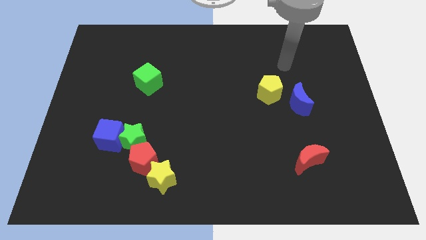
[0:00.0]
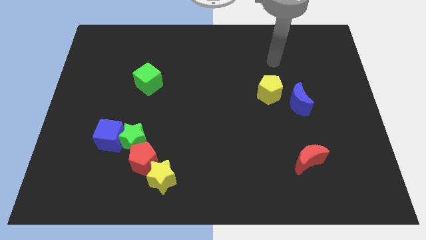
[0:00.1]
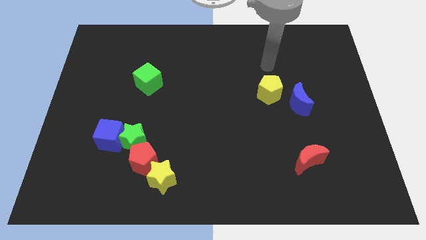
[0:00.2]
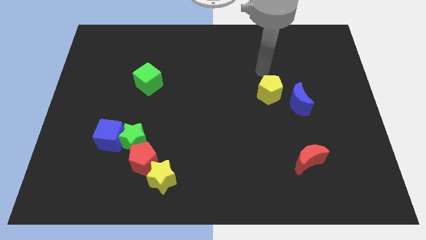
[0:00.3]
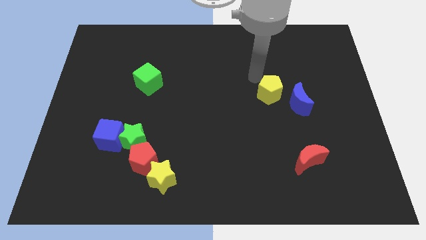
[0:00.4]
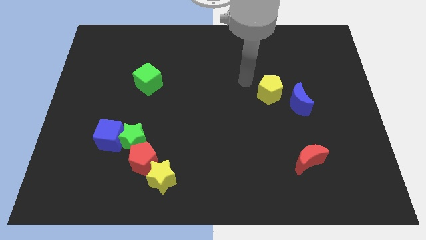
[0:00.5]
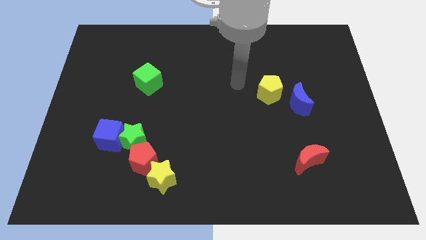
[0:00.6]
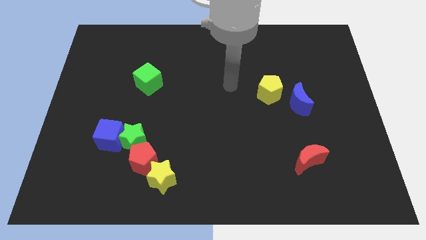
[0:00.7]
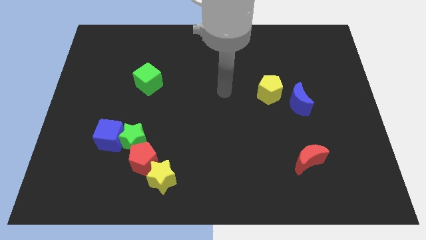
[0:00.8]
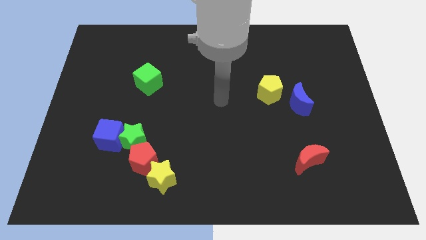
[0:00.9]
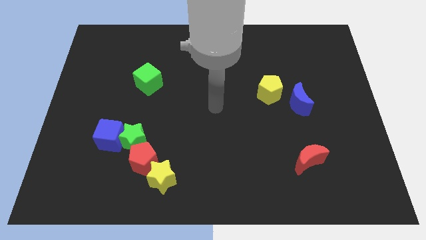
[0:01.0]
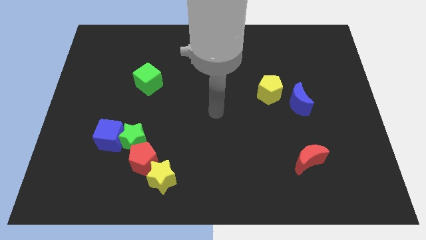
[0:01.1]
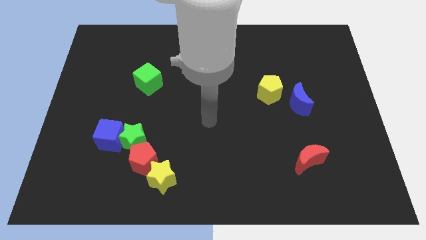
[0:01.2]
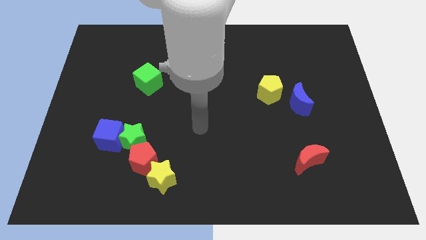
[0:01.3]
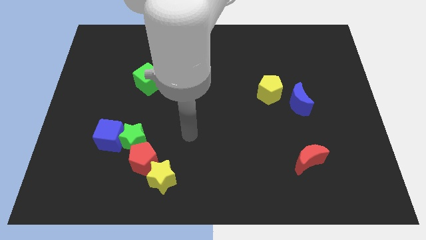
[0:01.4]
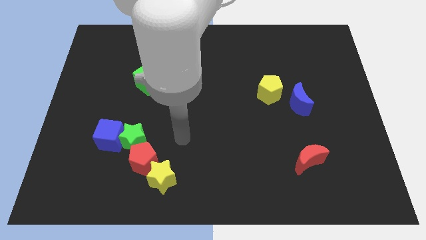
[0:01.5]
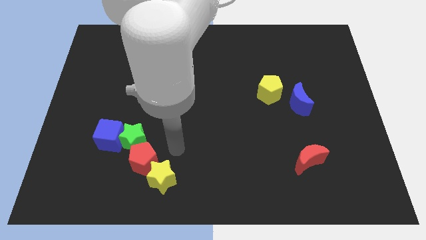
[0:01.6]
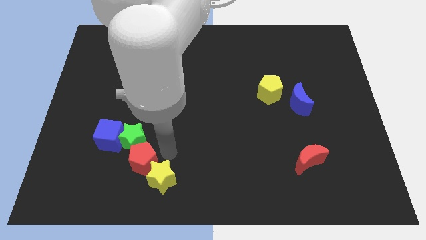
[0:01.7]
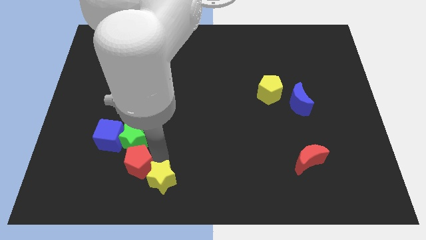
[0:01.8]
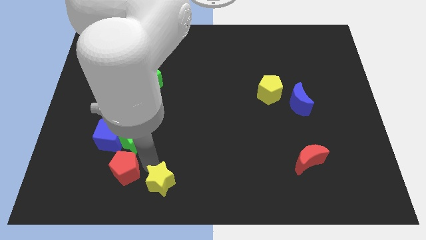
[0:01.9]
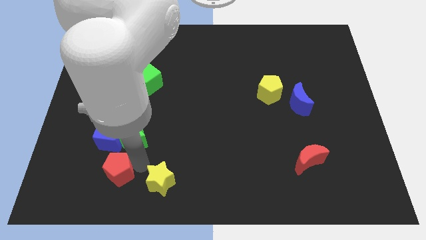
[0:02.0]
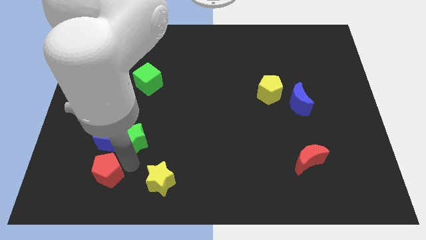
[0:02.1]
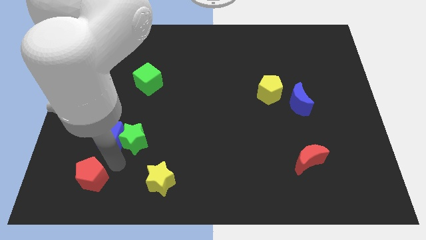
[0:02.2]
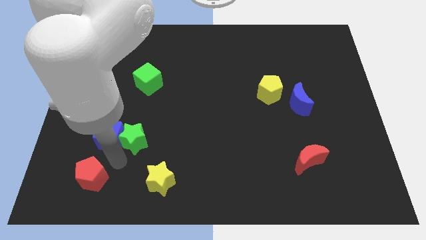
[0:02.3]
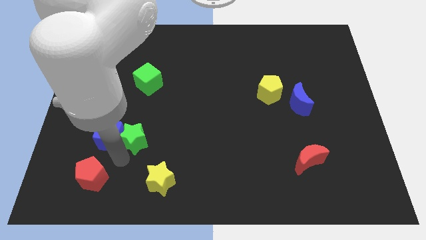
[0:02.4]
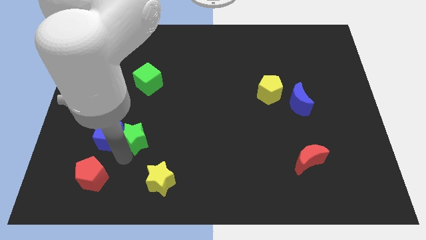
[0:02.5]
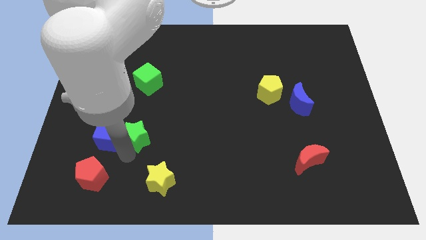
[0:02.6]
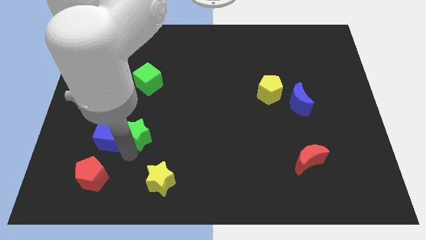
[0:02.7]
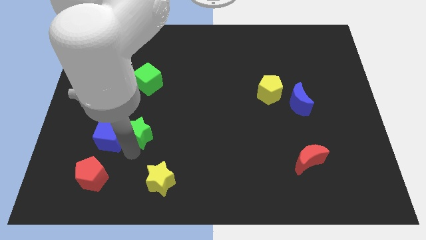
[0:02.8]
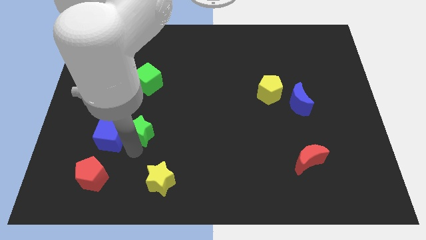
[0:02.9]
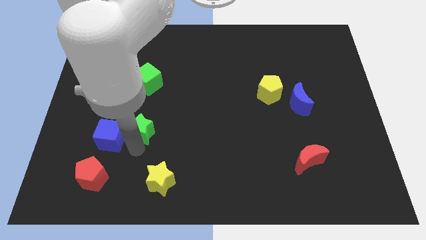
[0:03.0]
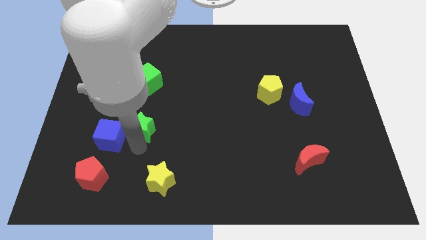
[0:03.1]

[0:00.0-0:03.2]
separate the green star from the blue cube and red pentagon

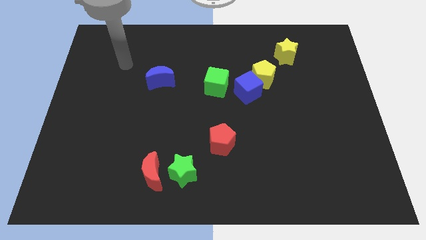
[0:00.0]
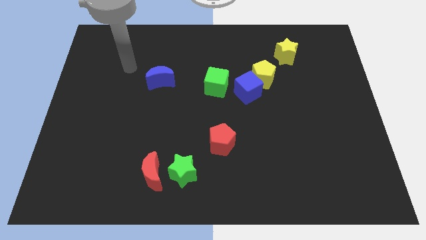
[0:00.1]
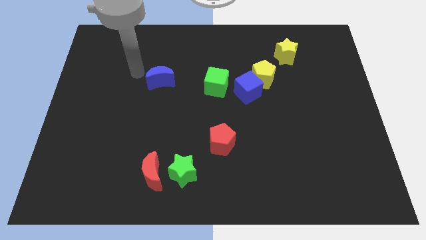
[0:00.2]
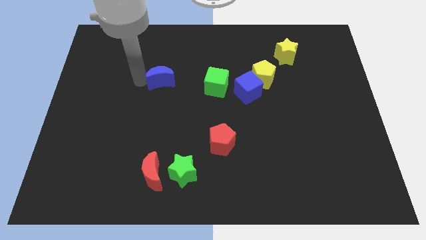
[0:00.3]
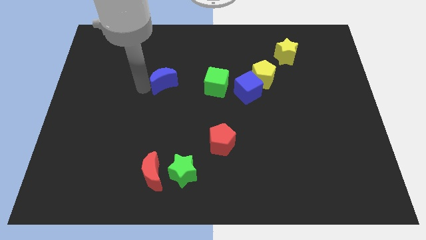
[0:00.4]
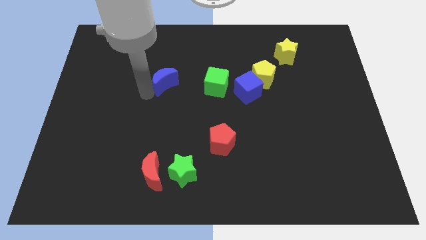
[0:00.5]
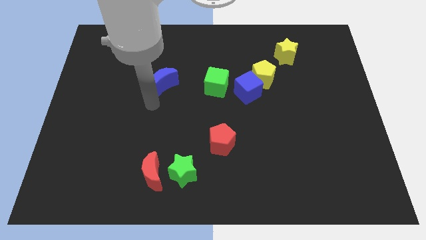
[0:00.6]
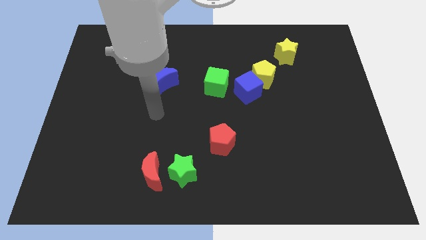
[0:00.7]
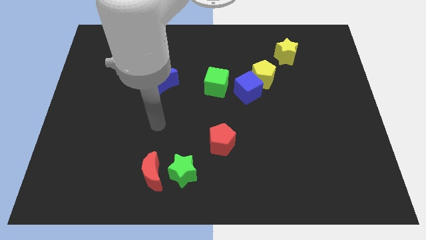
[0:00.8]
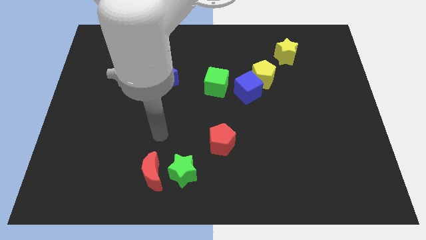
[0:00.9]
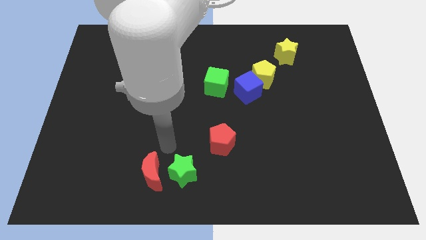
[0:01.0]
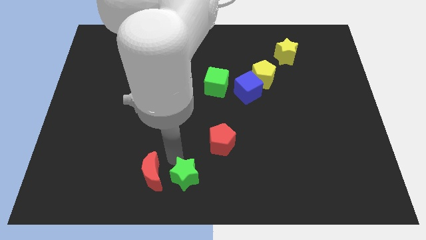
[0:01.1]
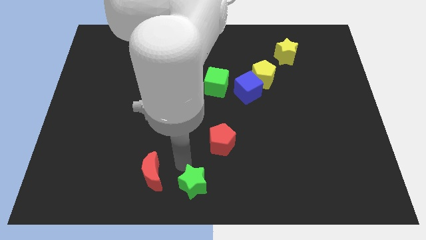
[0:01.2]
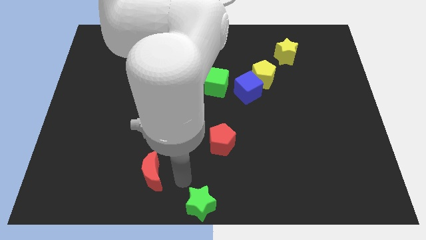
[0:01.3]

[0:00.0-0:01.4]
pull the red moon apart from the green star

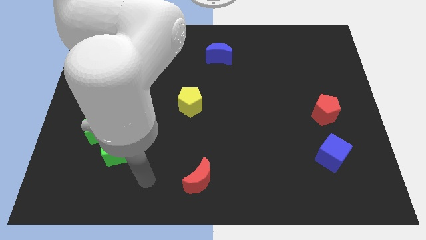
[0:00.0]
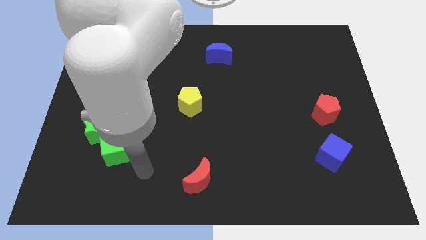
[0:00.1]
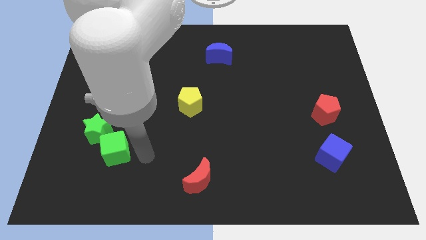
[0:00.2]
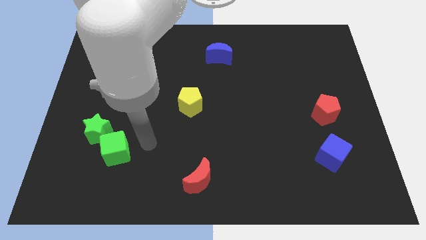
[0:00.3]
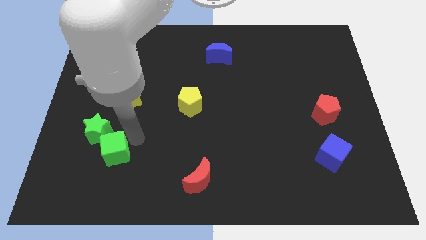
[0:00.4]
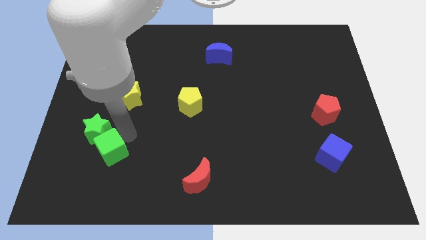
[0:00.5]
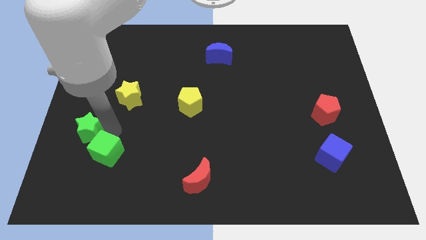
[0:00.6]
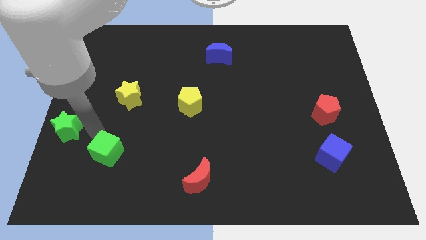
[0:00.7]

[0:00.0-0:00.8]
separate the green cube from the green star

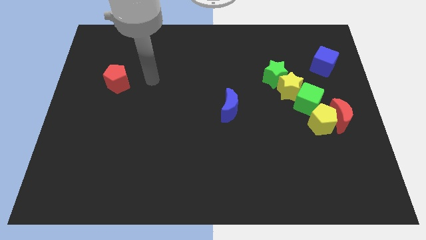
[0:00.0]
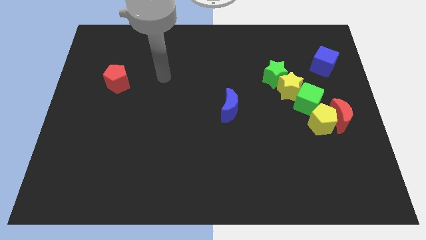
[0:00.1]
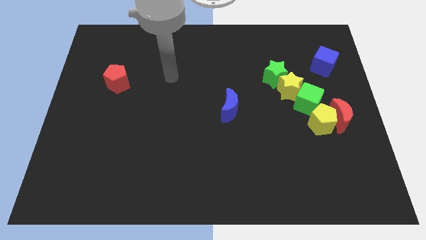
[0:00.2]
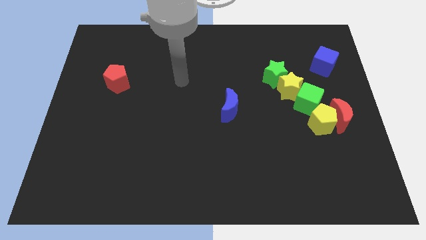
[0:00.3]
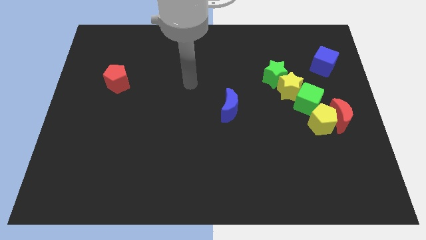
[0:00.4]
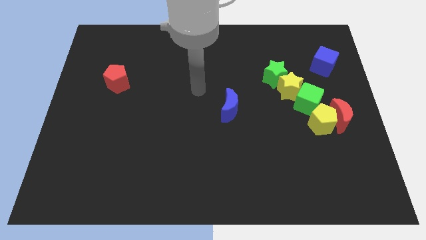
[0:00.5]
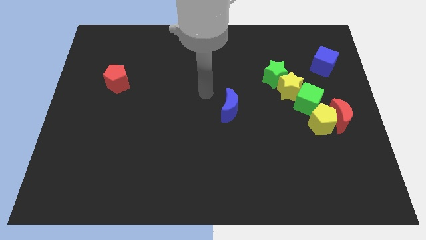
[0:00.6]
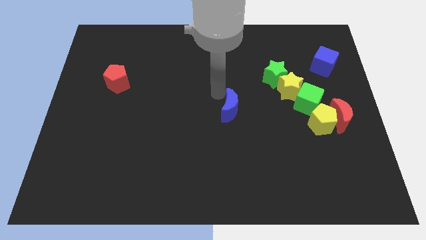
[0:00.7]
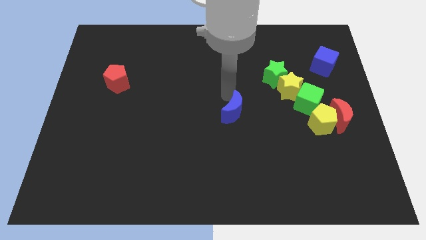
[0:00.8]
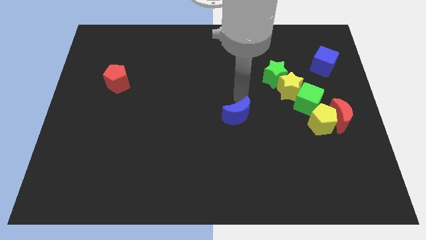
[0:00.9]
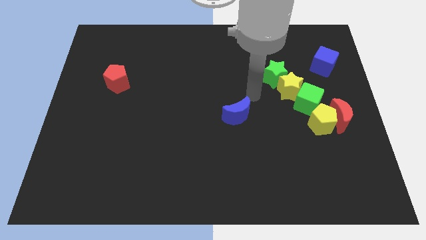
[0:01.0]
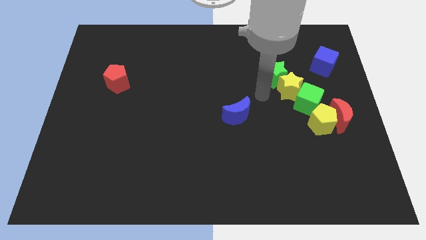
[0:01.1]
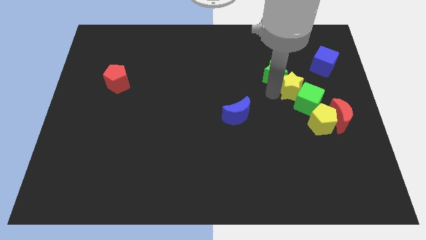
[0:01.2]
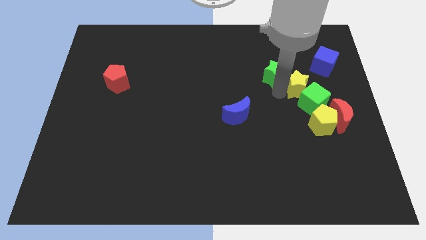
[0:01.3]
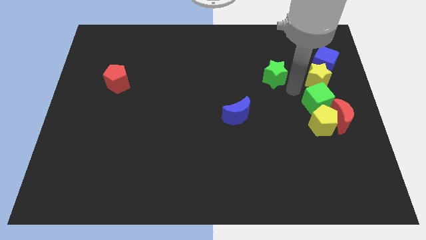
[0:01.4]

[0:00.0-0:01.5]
pull the green star apart from the yellow star

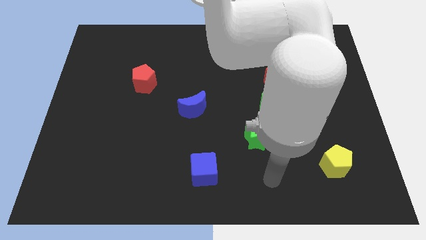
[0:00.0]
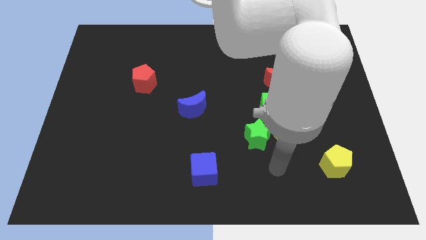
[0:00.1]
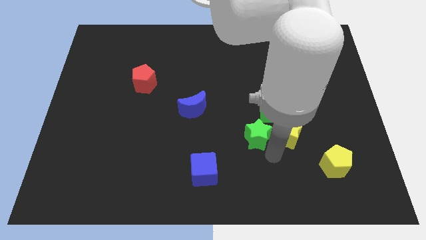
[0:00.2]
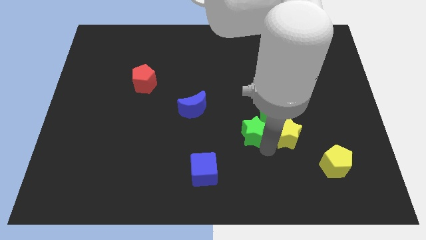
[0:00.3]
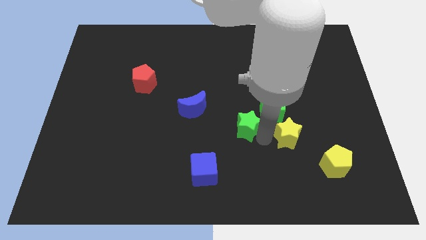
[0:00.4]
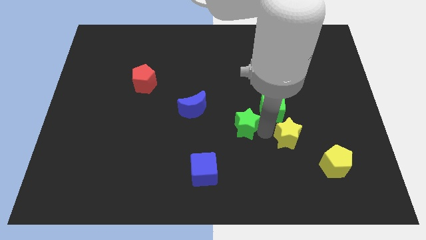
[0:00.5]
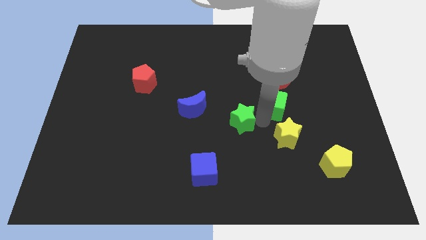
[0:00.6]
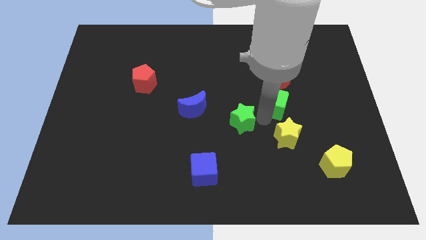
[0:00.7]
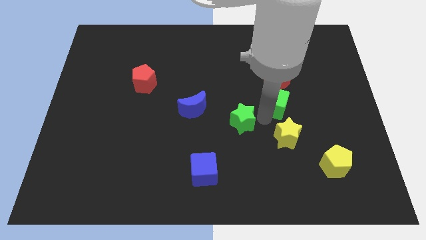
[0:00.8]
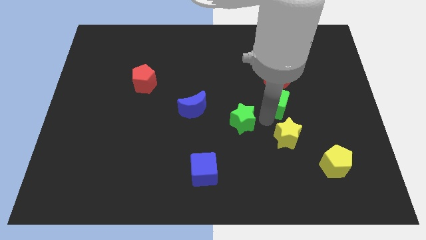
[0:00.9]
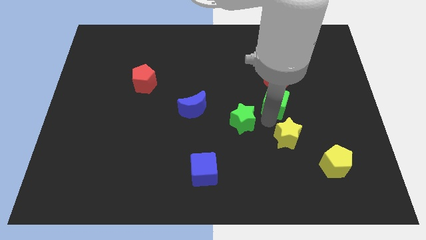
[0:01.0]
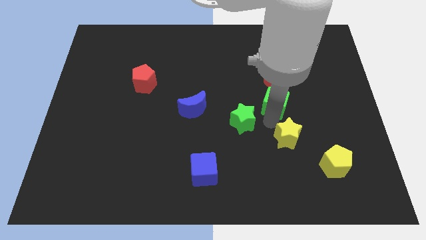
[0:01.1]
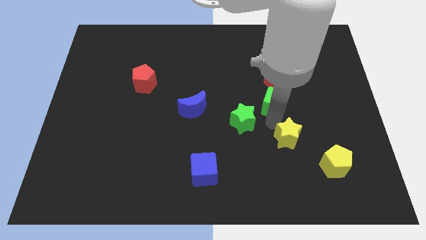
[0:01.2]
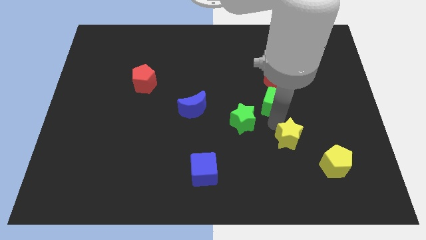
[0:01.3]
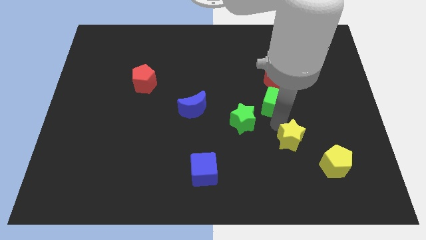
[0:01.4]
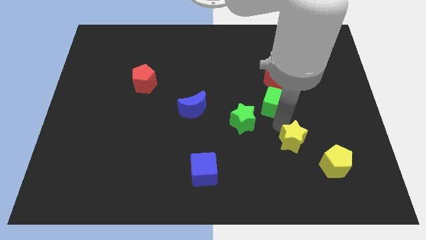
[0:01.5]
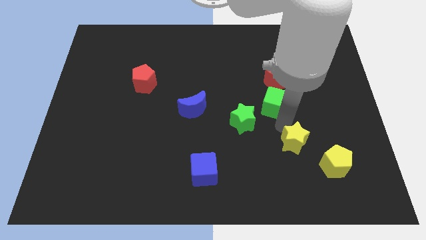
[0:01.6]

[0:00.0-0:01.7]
separate the yellow star from the green star and green cube

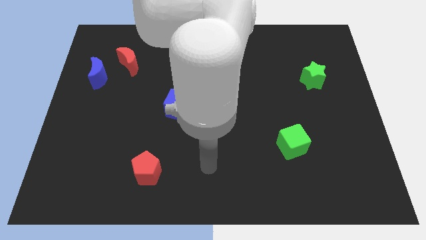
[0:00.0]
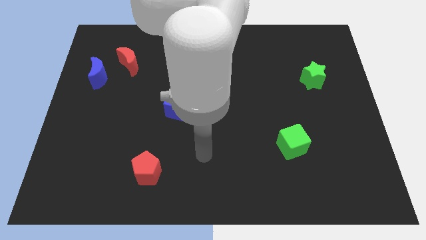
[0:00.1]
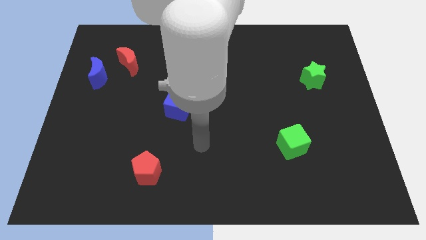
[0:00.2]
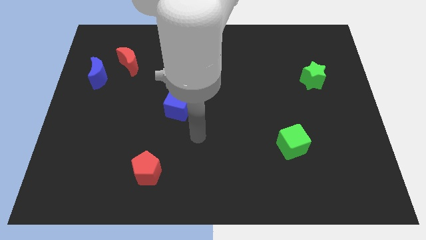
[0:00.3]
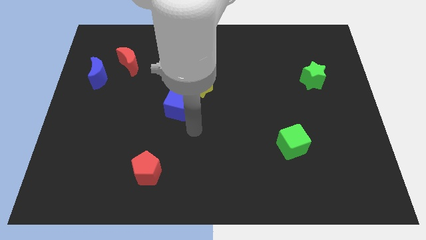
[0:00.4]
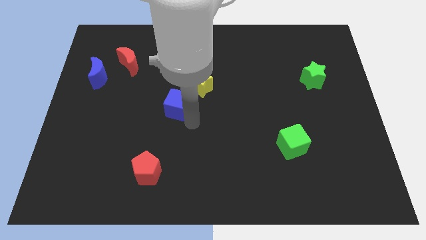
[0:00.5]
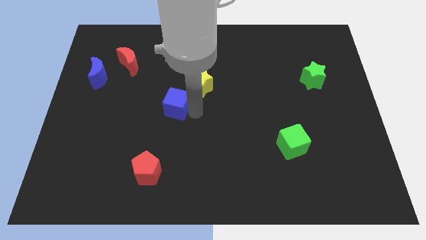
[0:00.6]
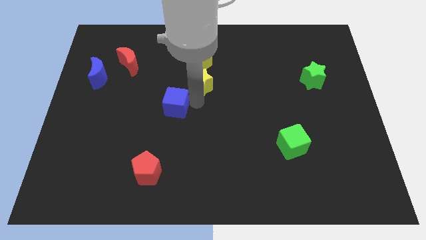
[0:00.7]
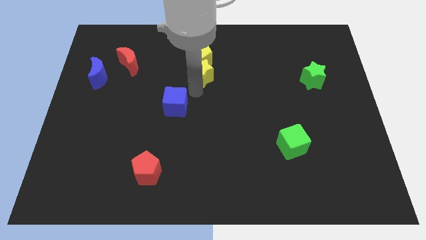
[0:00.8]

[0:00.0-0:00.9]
pull the blue cube apart from the yellow star
